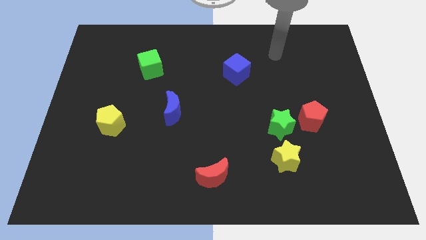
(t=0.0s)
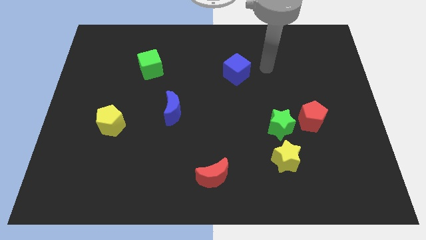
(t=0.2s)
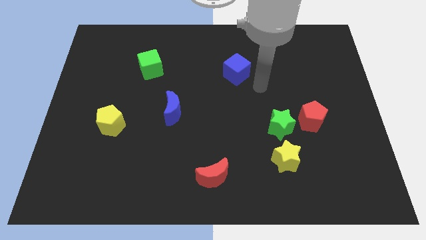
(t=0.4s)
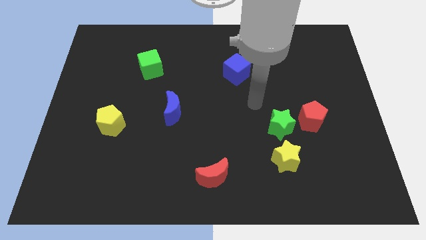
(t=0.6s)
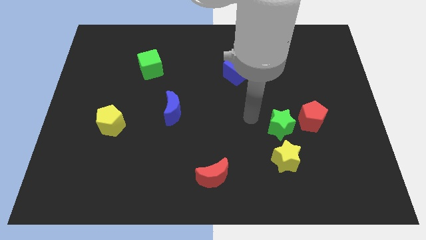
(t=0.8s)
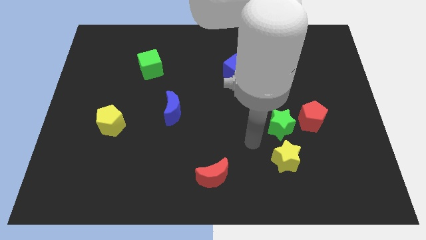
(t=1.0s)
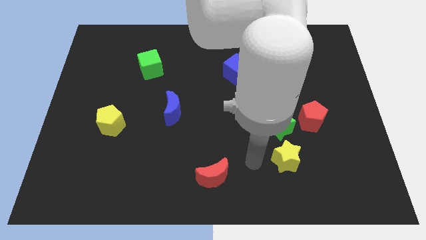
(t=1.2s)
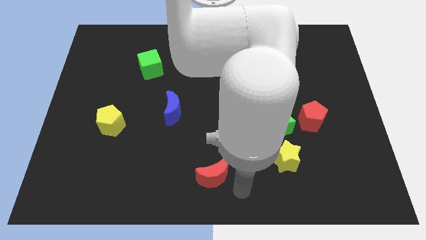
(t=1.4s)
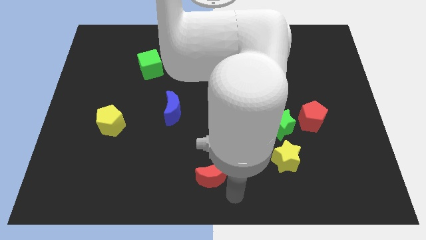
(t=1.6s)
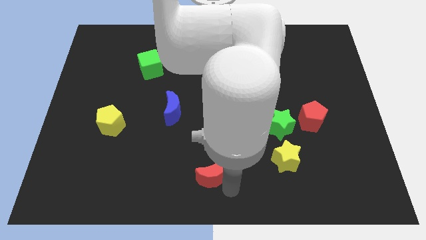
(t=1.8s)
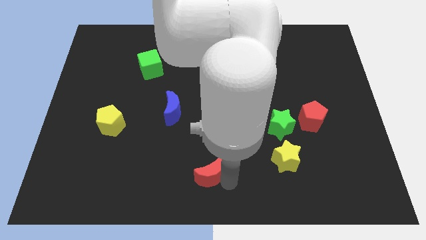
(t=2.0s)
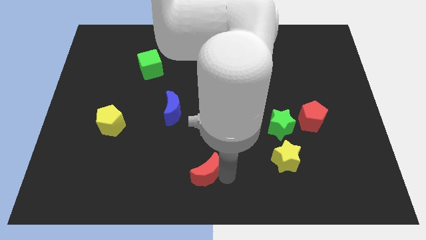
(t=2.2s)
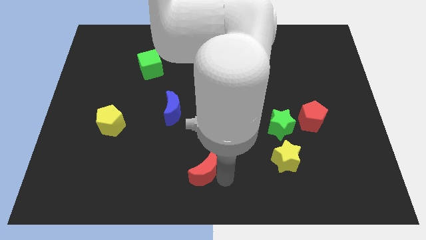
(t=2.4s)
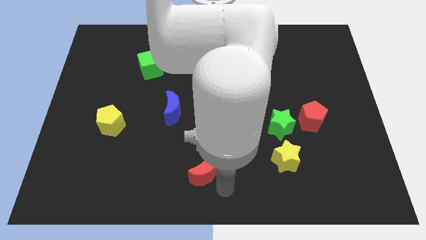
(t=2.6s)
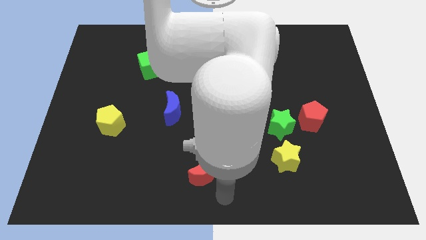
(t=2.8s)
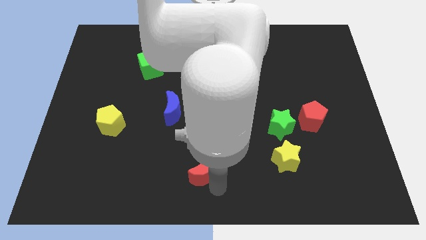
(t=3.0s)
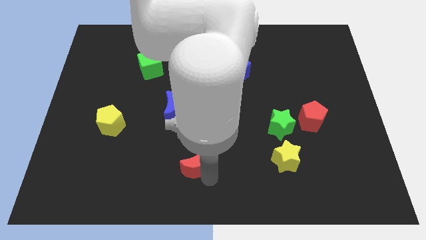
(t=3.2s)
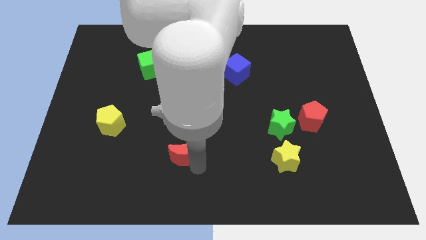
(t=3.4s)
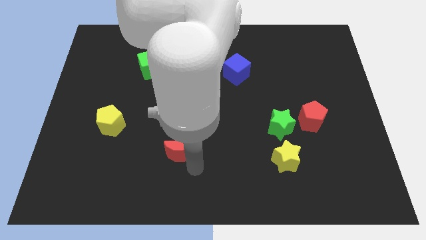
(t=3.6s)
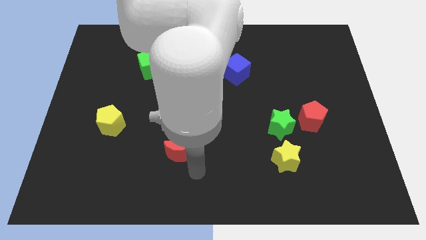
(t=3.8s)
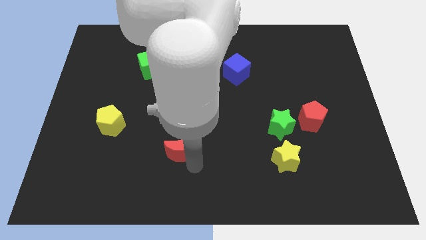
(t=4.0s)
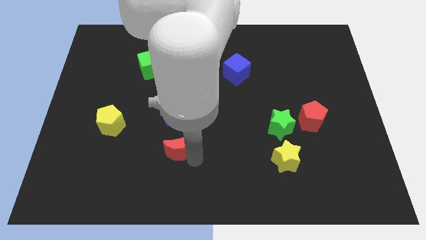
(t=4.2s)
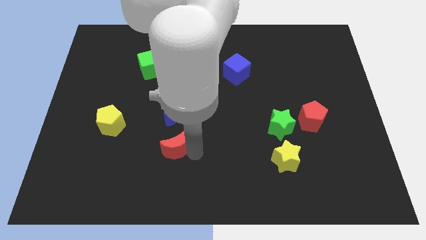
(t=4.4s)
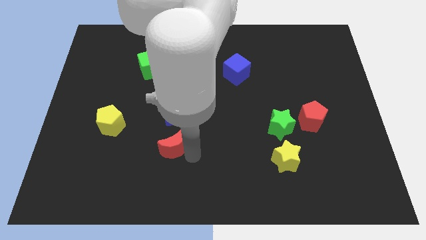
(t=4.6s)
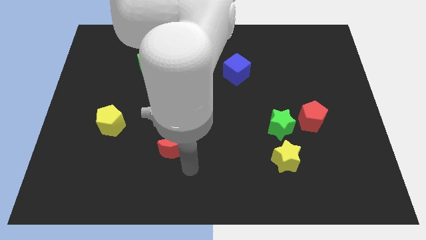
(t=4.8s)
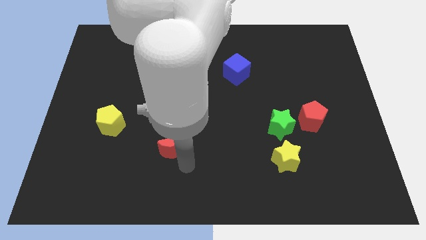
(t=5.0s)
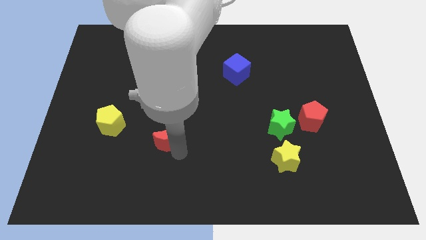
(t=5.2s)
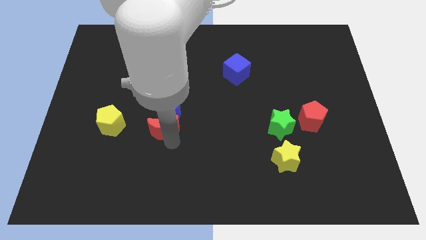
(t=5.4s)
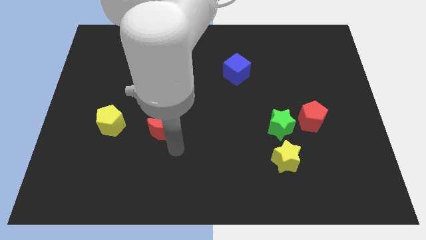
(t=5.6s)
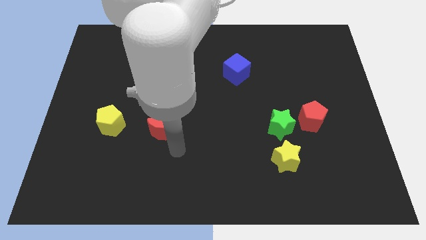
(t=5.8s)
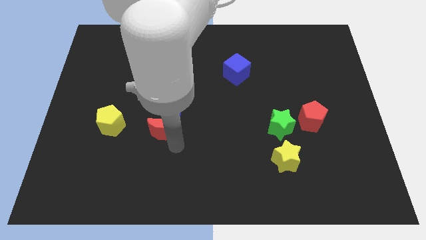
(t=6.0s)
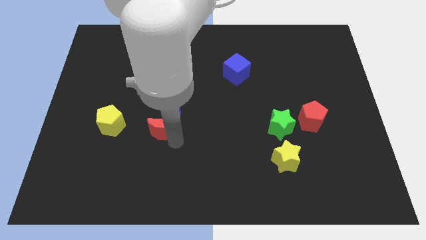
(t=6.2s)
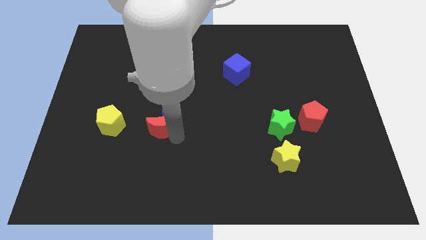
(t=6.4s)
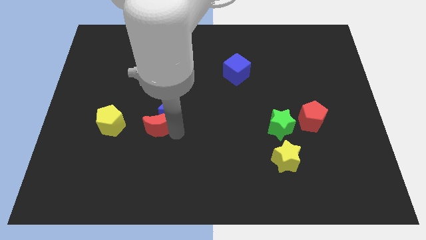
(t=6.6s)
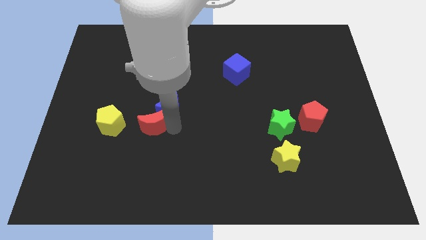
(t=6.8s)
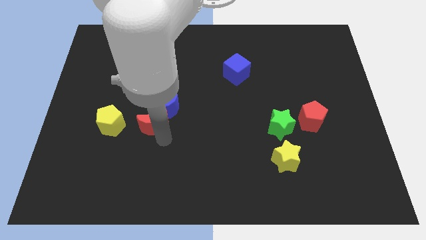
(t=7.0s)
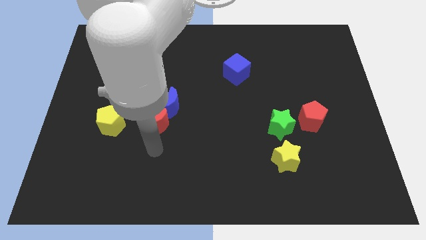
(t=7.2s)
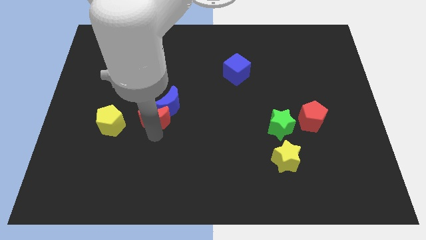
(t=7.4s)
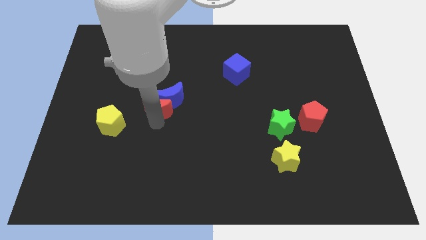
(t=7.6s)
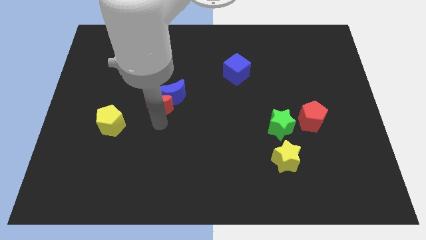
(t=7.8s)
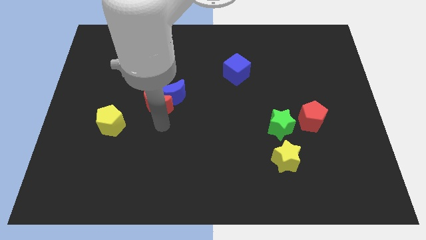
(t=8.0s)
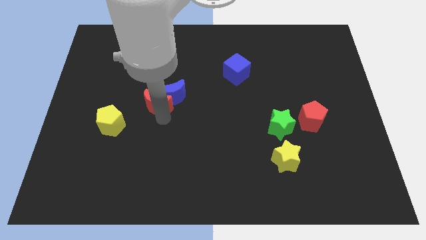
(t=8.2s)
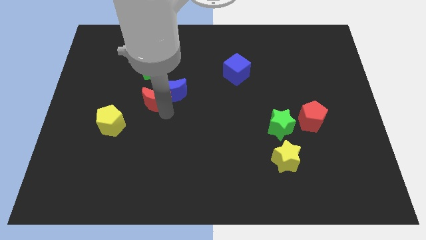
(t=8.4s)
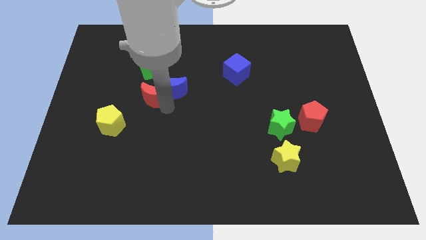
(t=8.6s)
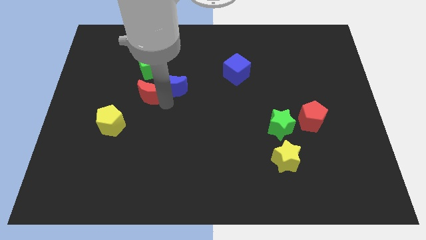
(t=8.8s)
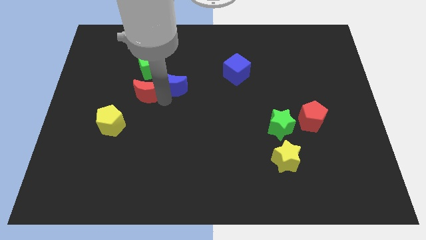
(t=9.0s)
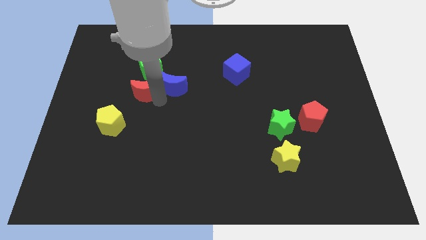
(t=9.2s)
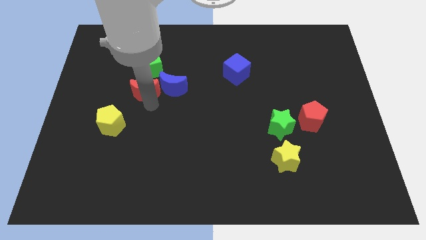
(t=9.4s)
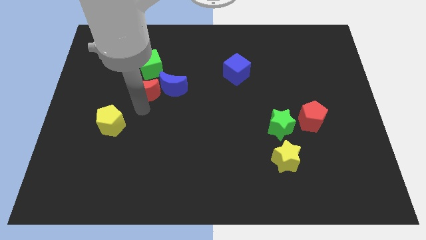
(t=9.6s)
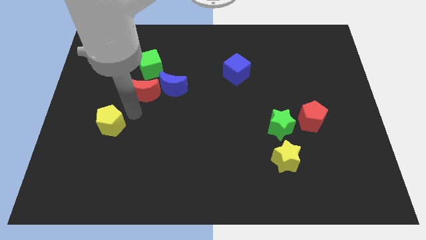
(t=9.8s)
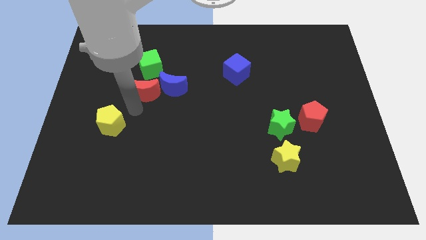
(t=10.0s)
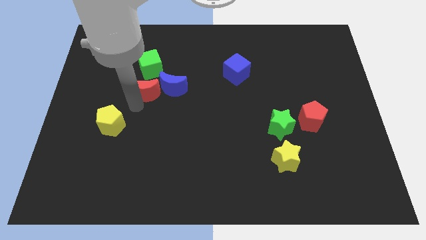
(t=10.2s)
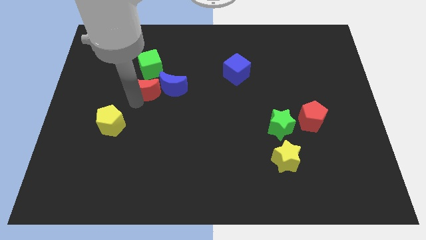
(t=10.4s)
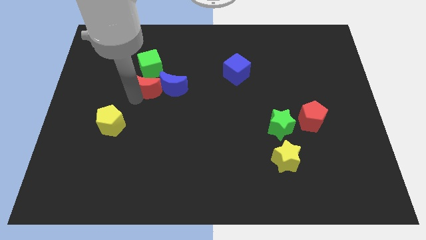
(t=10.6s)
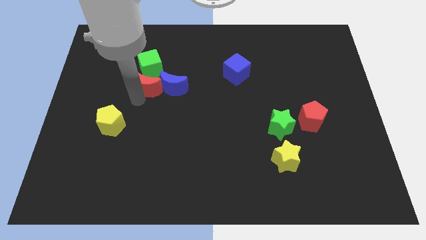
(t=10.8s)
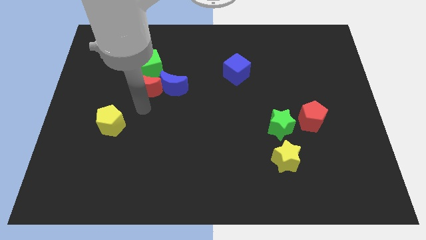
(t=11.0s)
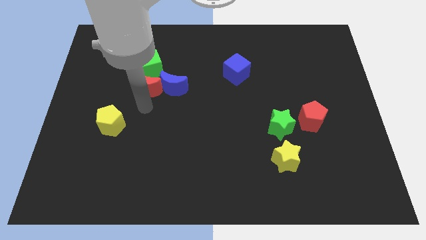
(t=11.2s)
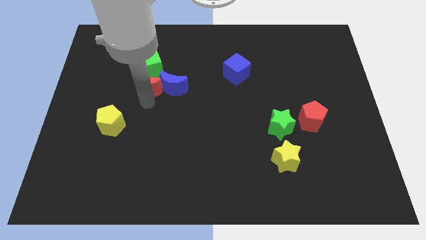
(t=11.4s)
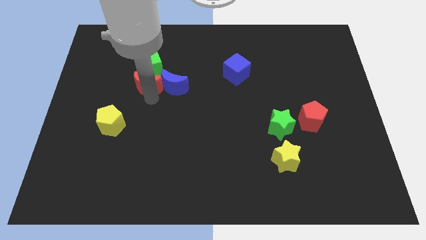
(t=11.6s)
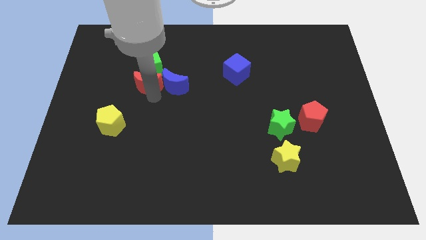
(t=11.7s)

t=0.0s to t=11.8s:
push the red moon to the green cube

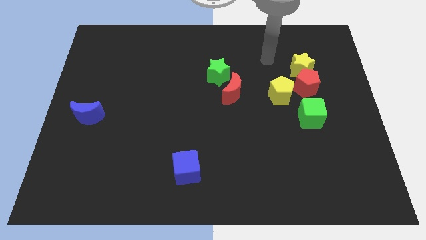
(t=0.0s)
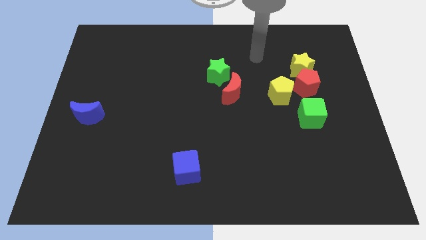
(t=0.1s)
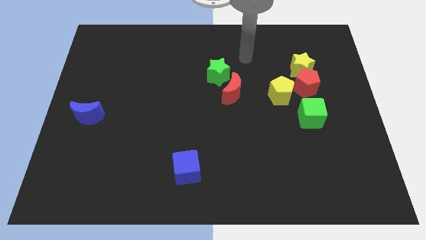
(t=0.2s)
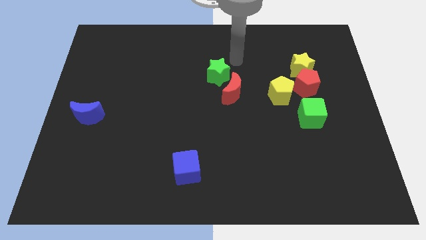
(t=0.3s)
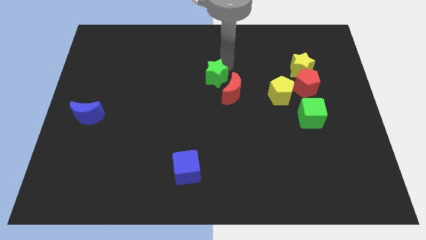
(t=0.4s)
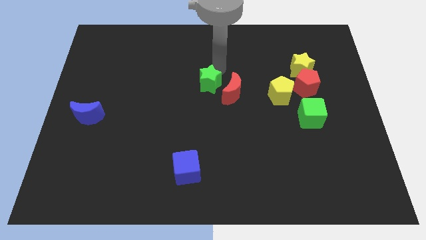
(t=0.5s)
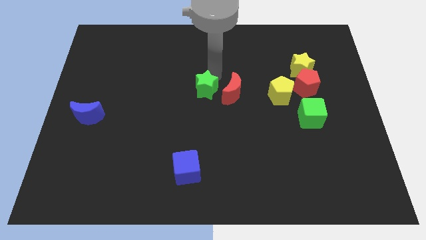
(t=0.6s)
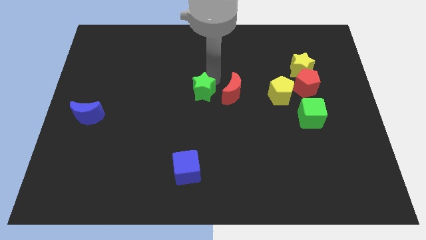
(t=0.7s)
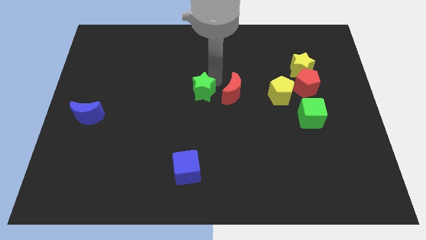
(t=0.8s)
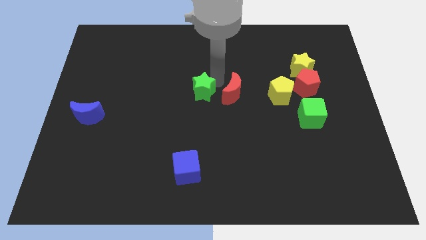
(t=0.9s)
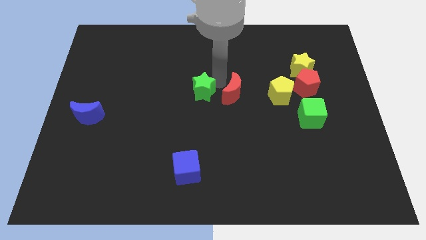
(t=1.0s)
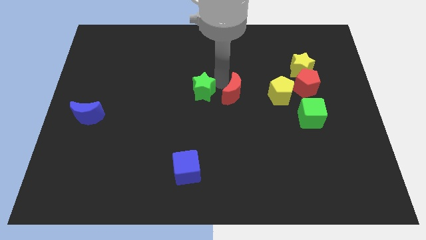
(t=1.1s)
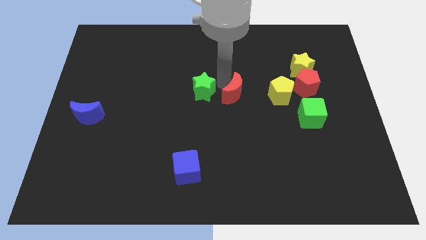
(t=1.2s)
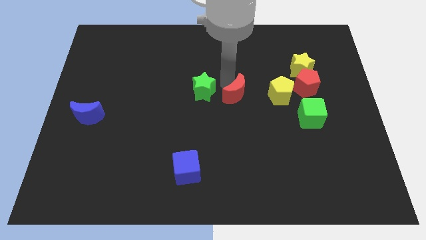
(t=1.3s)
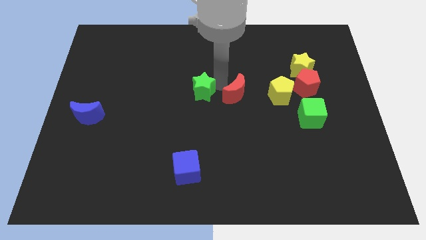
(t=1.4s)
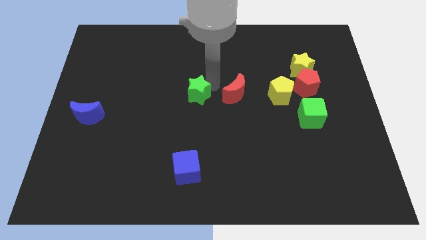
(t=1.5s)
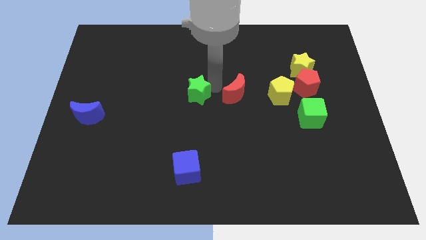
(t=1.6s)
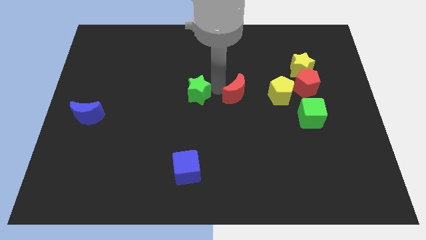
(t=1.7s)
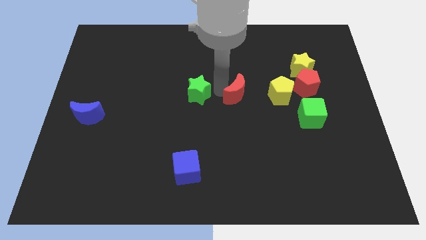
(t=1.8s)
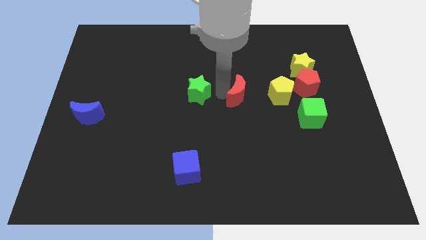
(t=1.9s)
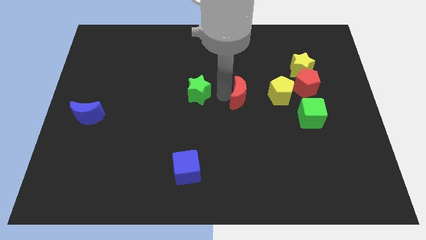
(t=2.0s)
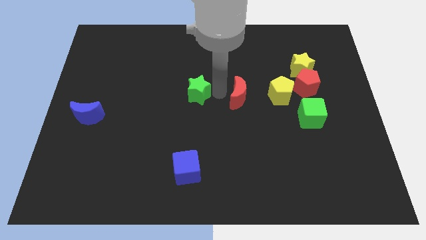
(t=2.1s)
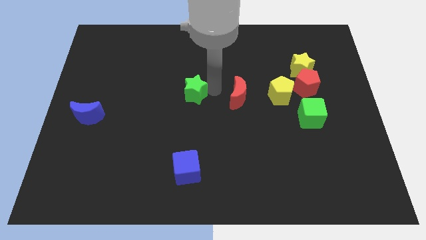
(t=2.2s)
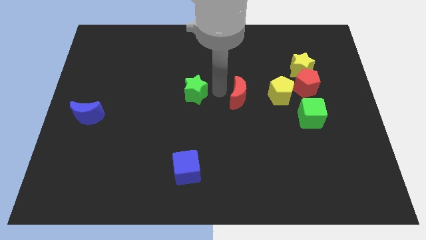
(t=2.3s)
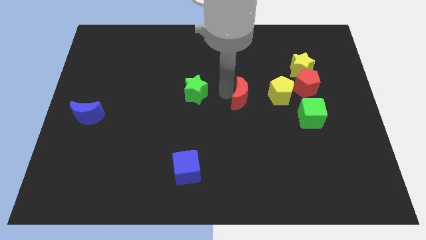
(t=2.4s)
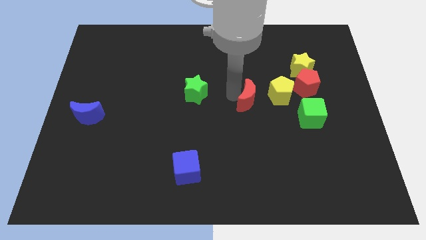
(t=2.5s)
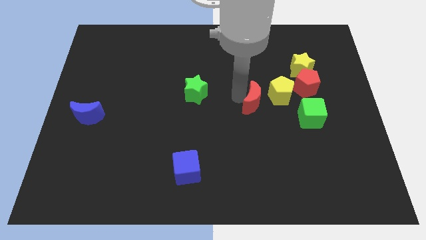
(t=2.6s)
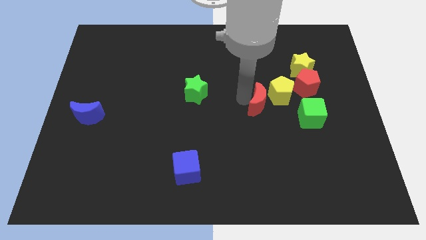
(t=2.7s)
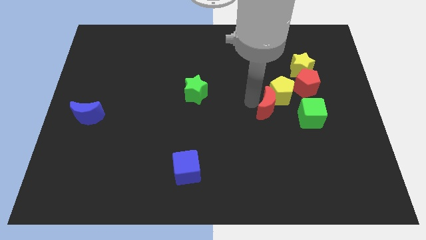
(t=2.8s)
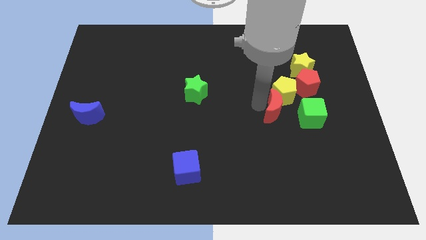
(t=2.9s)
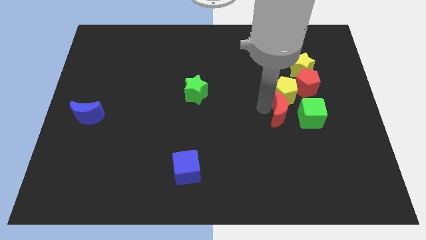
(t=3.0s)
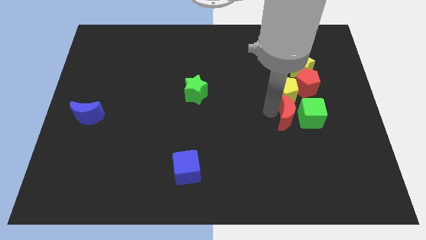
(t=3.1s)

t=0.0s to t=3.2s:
move the red moon next to the green cube
